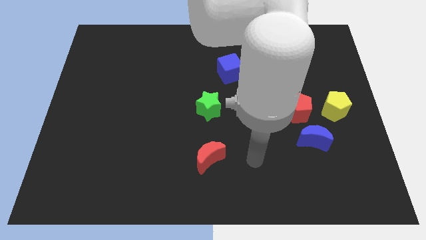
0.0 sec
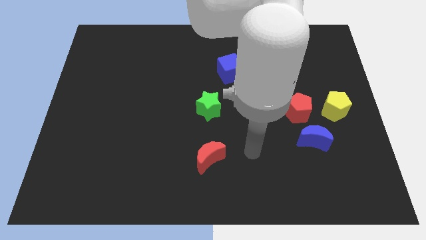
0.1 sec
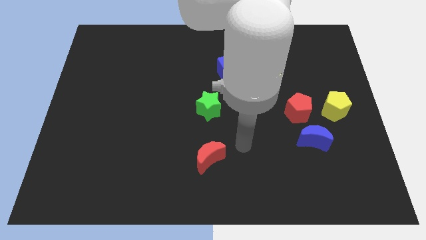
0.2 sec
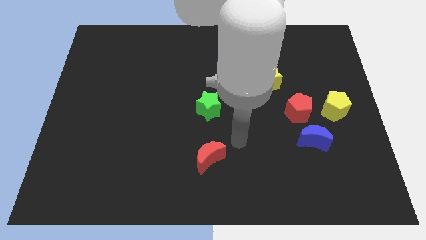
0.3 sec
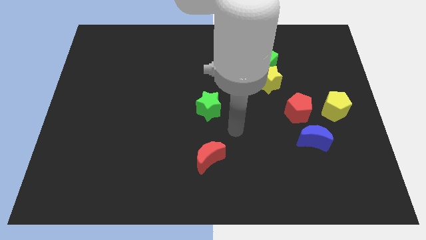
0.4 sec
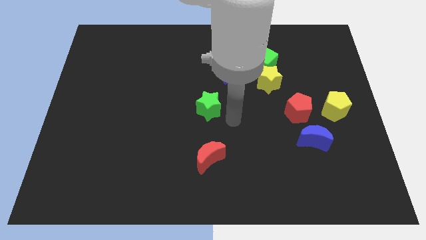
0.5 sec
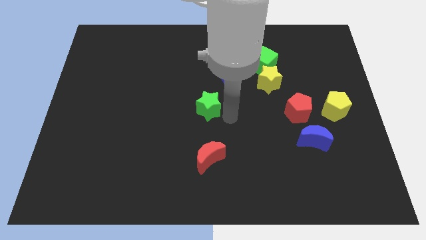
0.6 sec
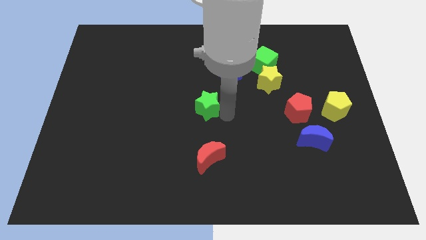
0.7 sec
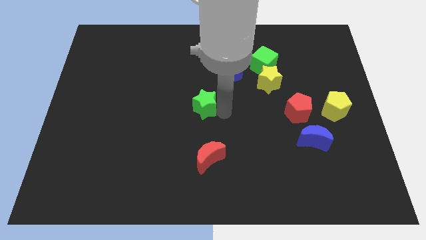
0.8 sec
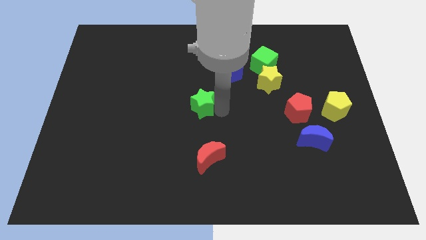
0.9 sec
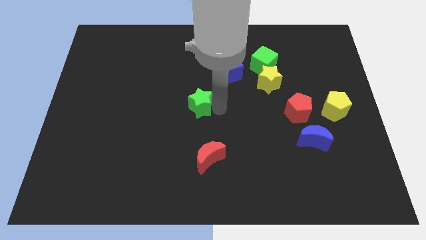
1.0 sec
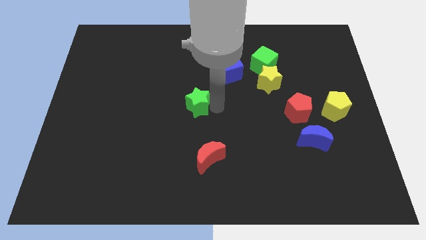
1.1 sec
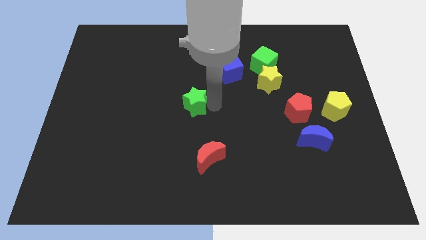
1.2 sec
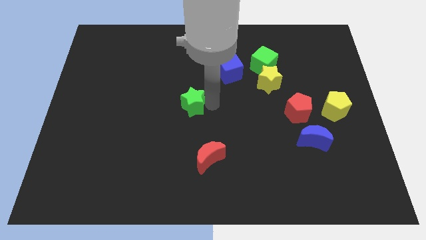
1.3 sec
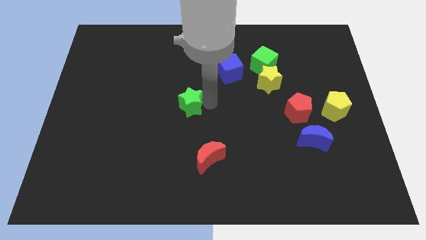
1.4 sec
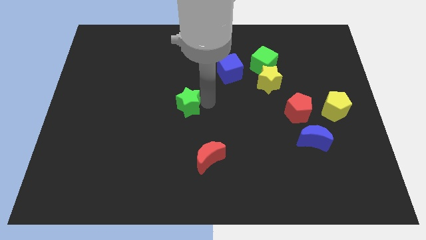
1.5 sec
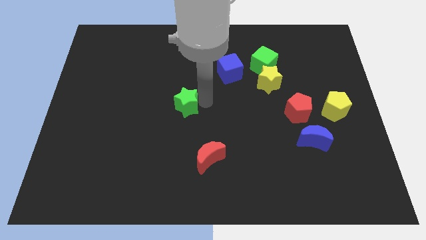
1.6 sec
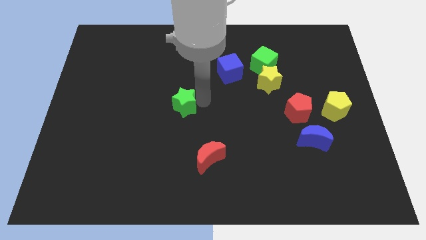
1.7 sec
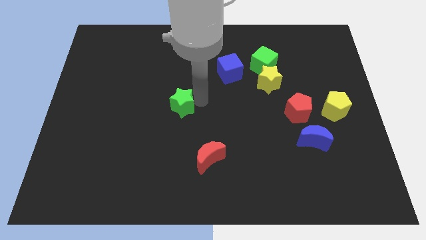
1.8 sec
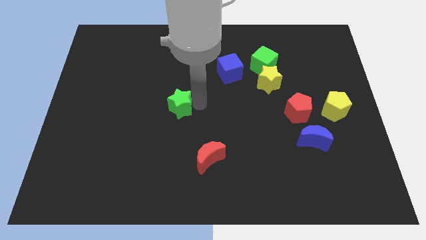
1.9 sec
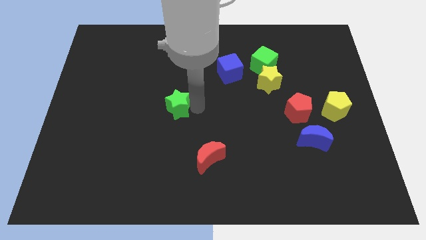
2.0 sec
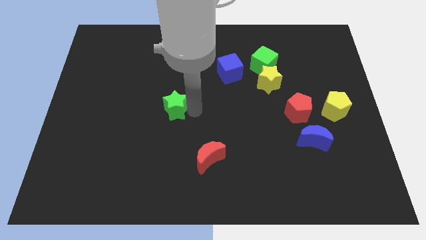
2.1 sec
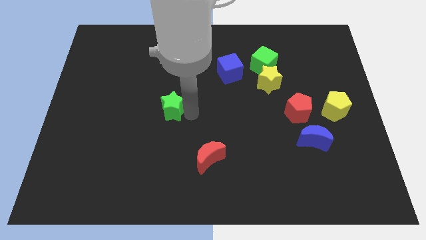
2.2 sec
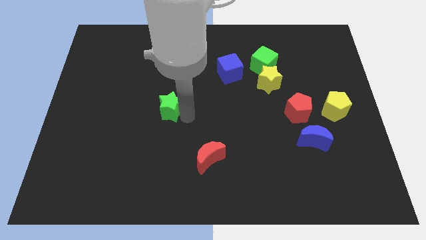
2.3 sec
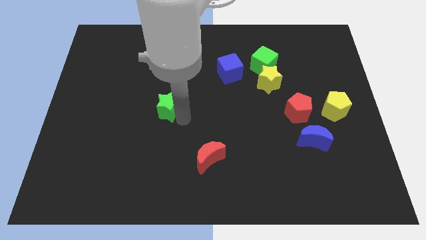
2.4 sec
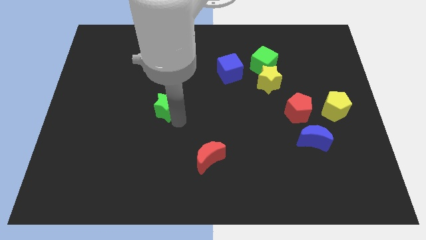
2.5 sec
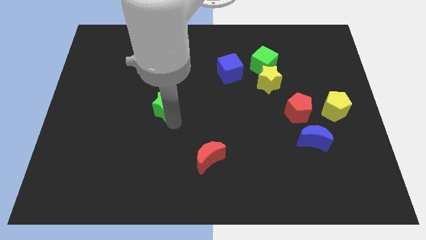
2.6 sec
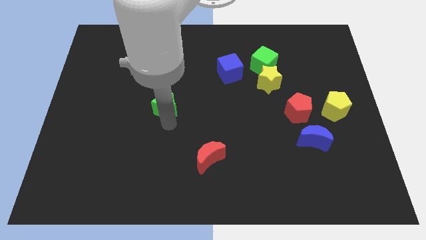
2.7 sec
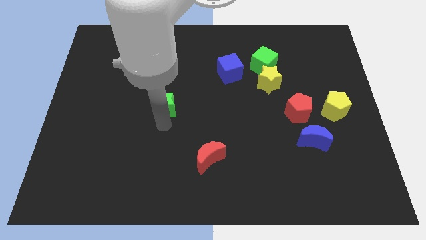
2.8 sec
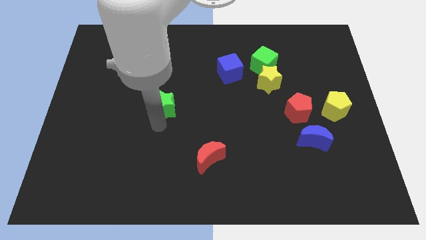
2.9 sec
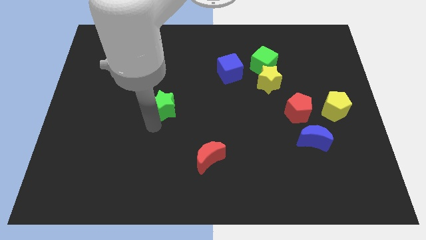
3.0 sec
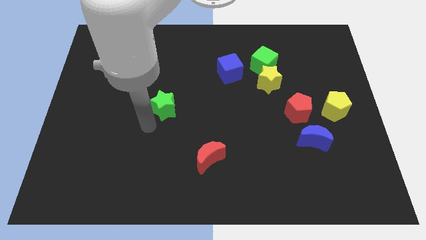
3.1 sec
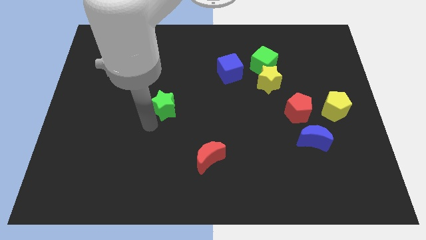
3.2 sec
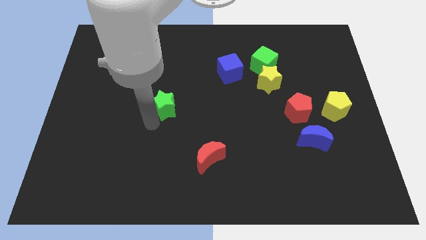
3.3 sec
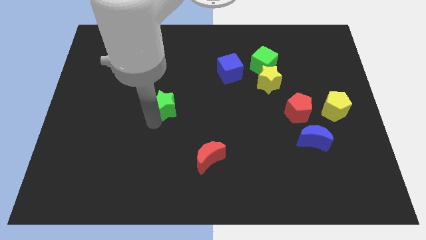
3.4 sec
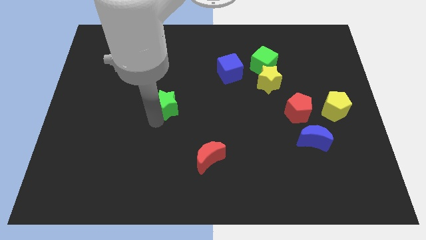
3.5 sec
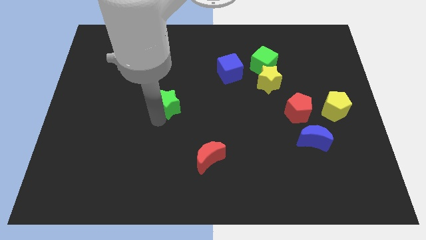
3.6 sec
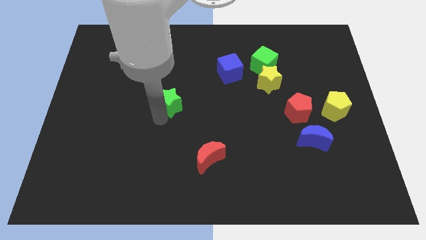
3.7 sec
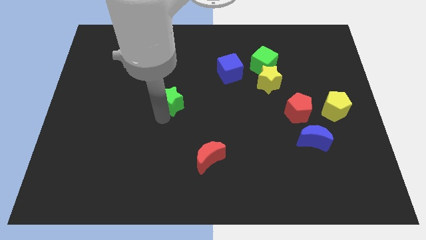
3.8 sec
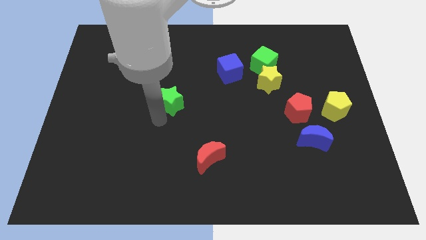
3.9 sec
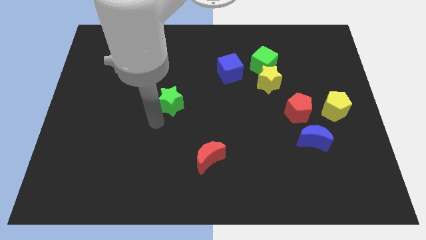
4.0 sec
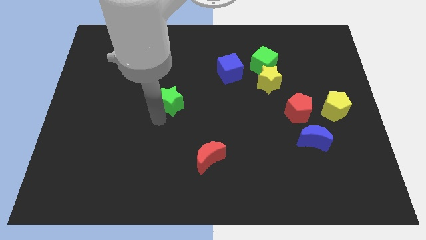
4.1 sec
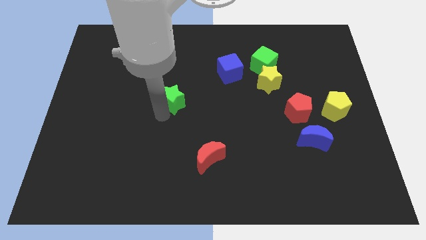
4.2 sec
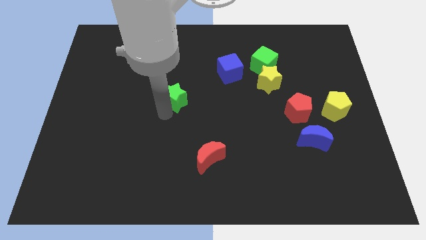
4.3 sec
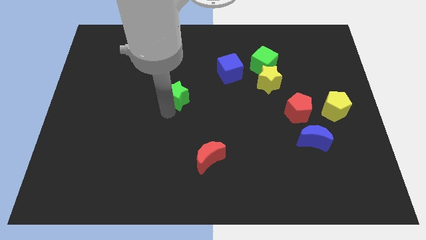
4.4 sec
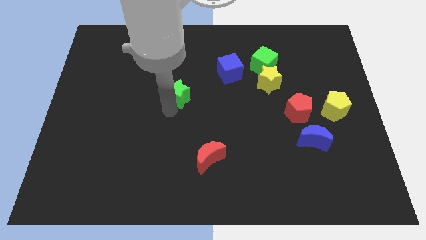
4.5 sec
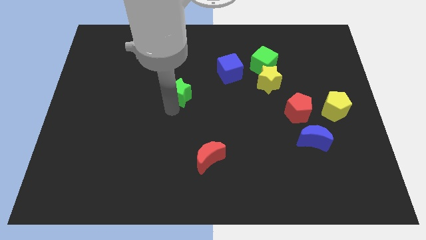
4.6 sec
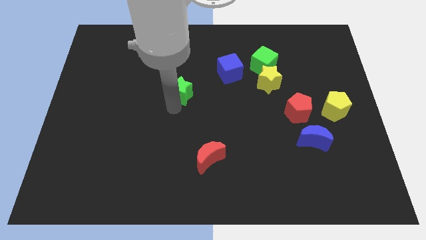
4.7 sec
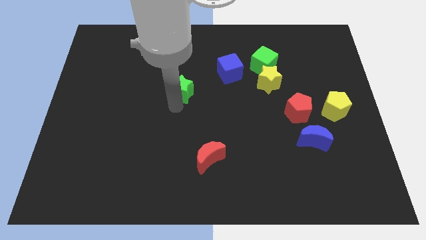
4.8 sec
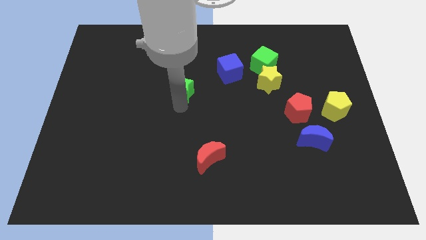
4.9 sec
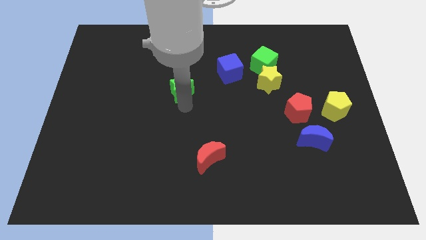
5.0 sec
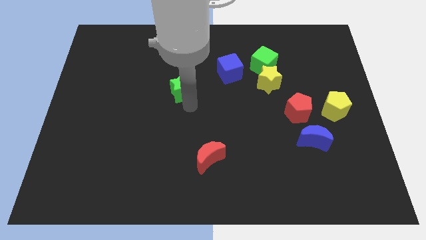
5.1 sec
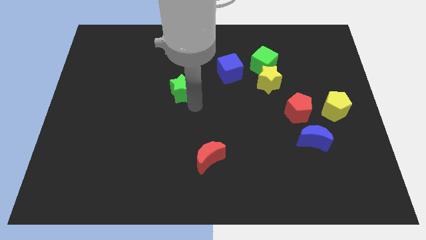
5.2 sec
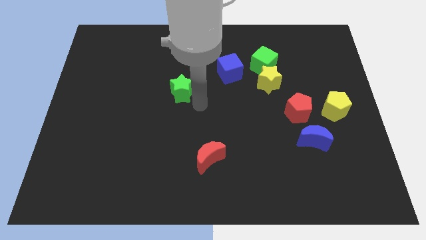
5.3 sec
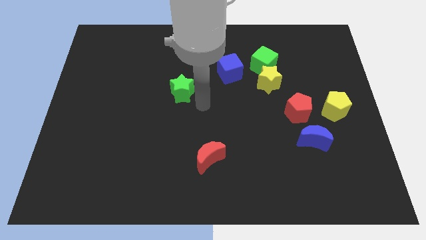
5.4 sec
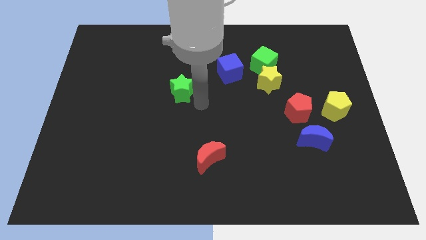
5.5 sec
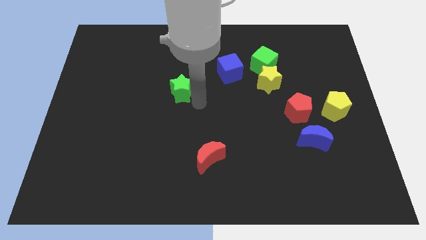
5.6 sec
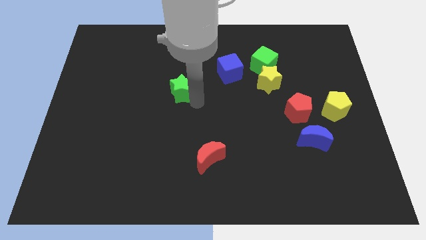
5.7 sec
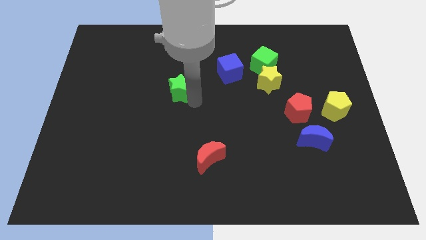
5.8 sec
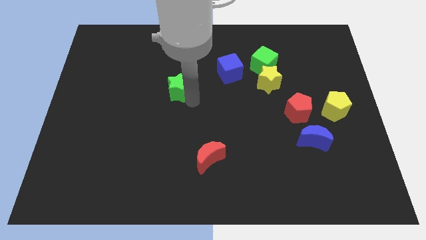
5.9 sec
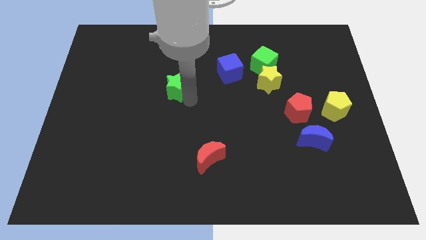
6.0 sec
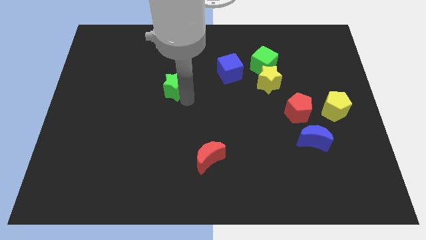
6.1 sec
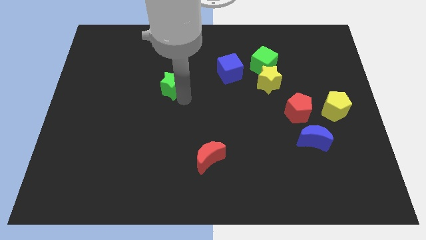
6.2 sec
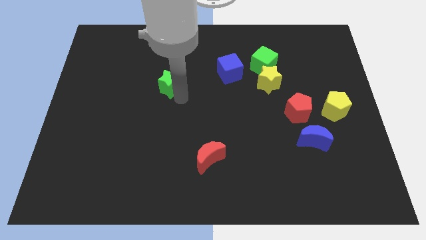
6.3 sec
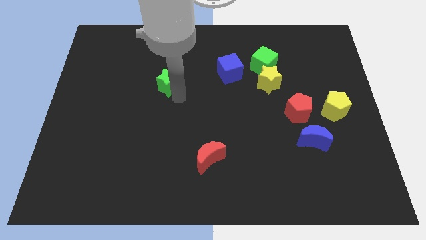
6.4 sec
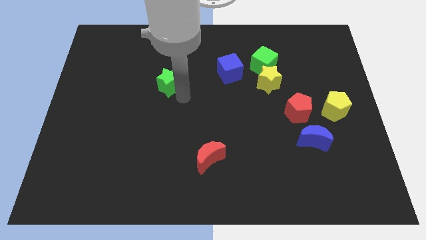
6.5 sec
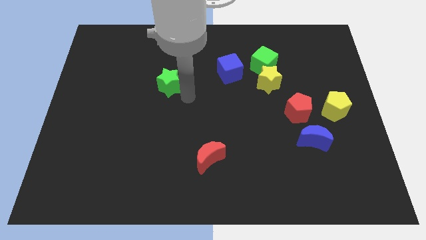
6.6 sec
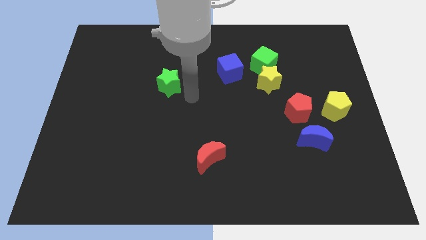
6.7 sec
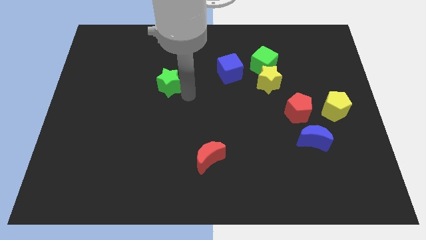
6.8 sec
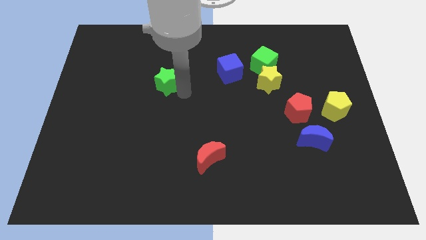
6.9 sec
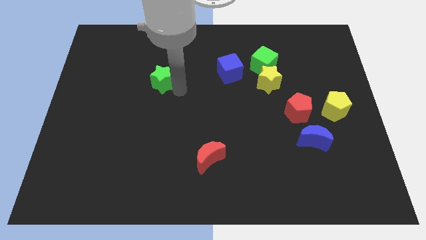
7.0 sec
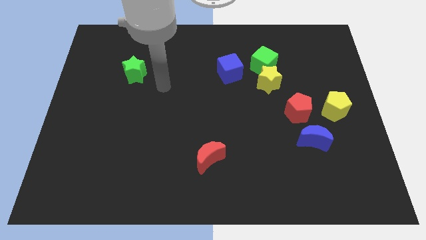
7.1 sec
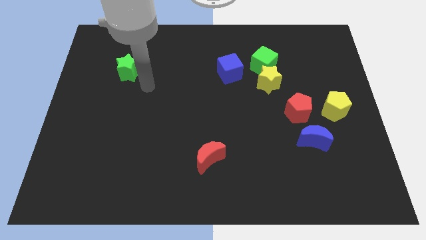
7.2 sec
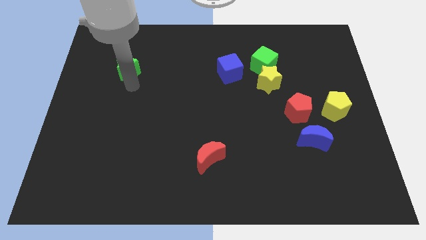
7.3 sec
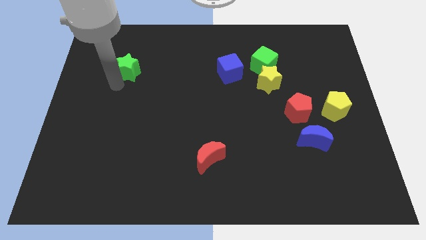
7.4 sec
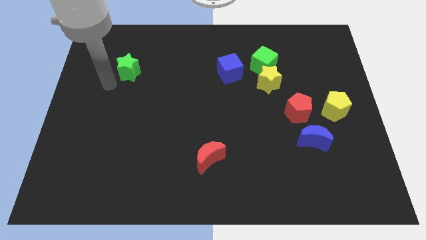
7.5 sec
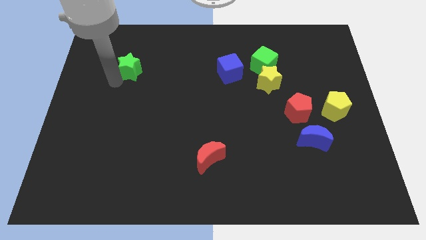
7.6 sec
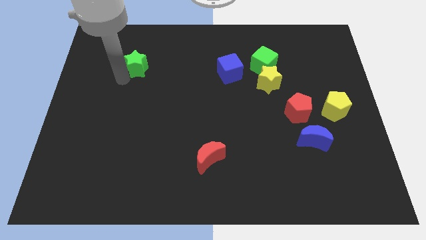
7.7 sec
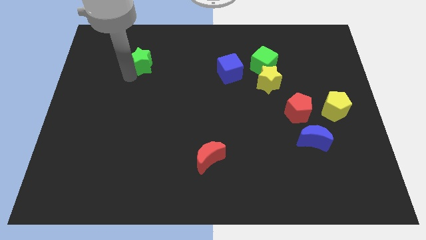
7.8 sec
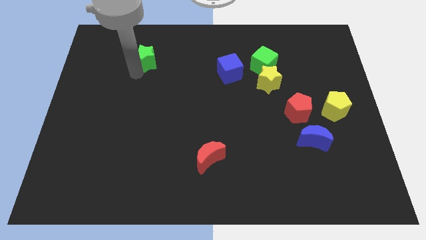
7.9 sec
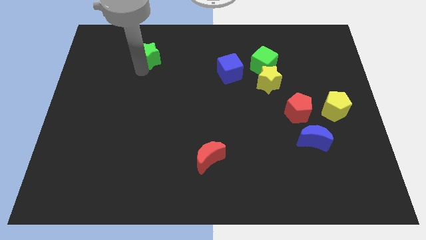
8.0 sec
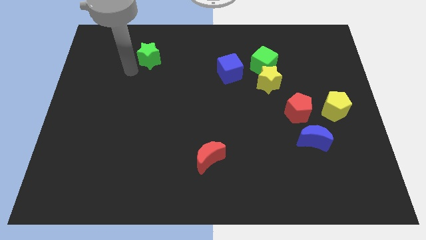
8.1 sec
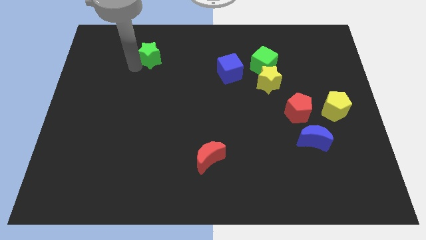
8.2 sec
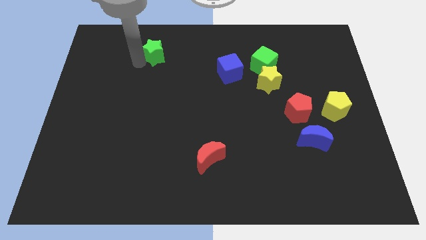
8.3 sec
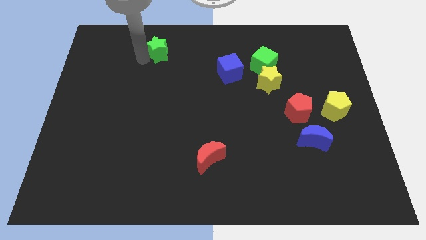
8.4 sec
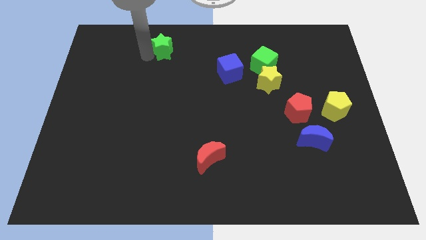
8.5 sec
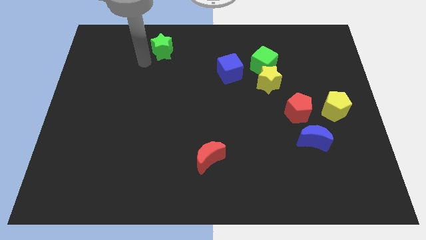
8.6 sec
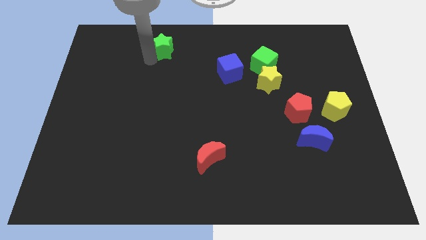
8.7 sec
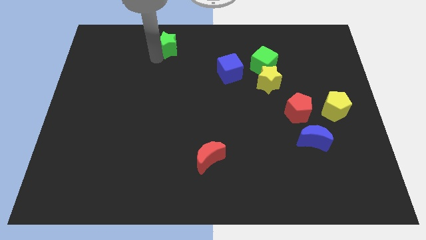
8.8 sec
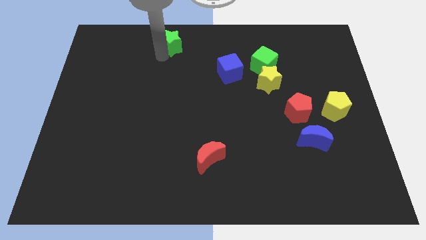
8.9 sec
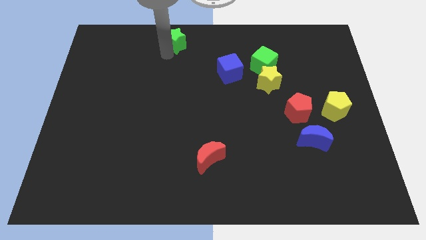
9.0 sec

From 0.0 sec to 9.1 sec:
move the green star to the top
